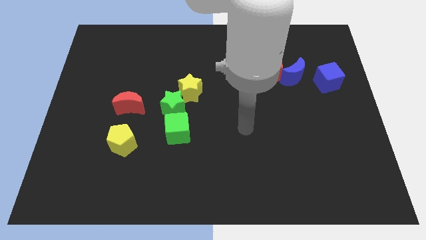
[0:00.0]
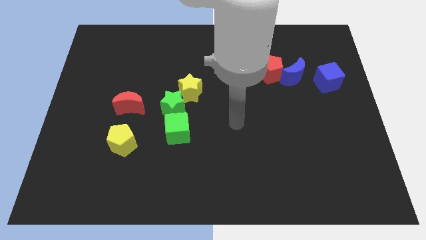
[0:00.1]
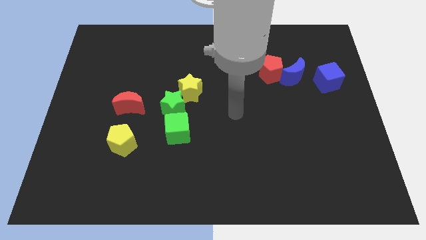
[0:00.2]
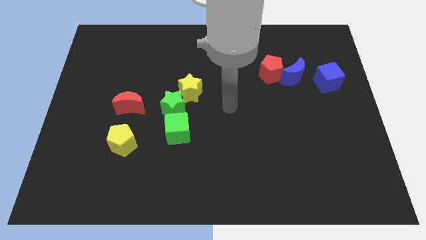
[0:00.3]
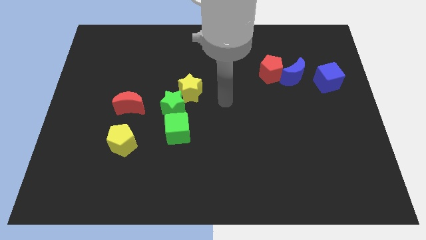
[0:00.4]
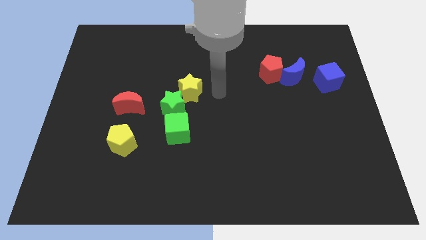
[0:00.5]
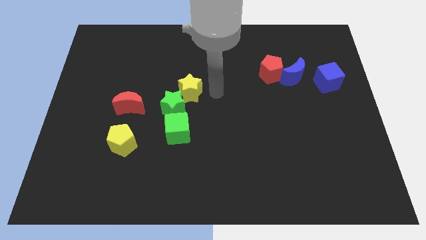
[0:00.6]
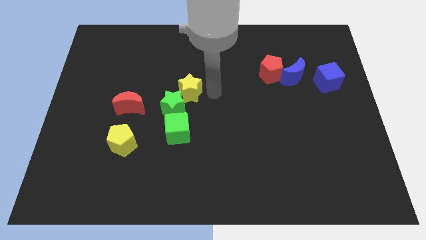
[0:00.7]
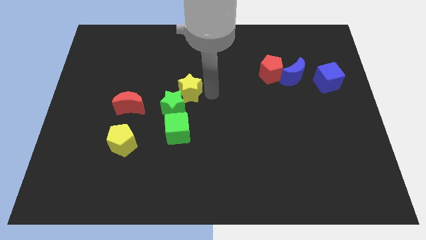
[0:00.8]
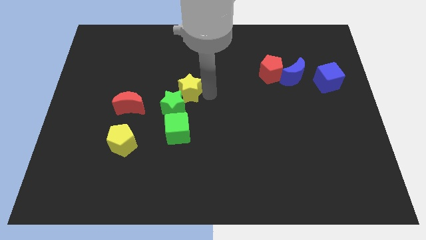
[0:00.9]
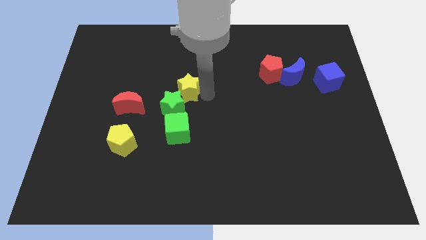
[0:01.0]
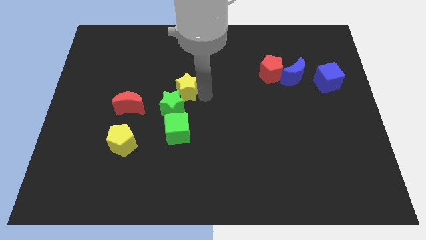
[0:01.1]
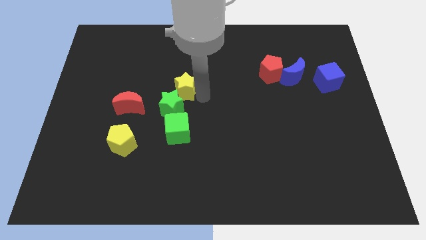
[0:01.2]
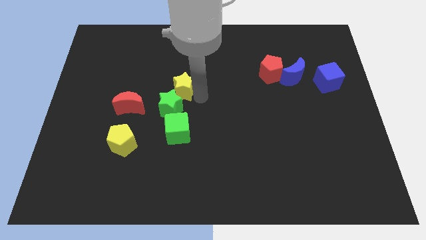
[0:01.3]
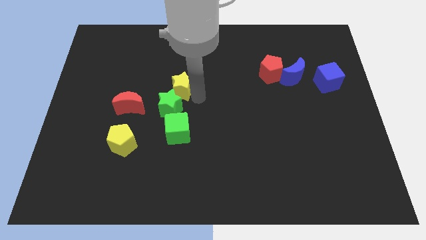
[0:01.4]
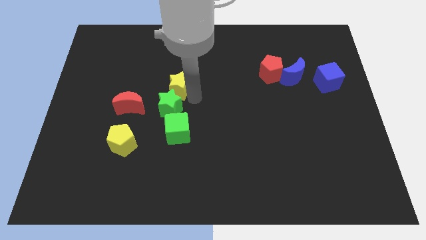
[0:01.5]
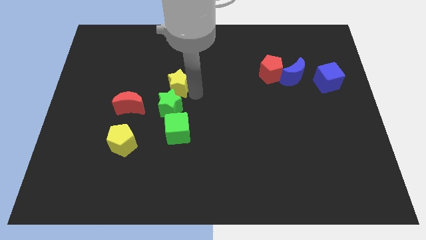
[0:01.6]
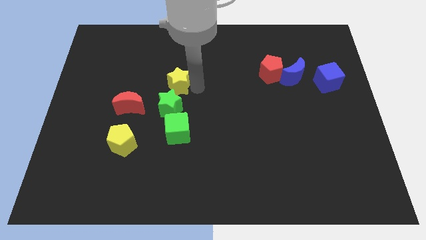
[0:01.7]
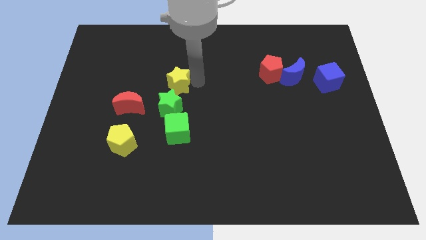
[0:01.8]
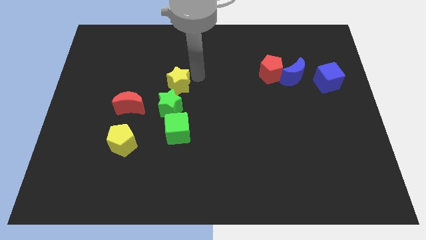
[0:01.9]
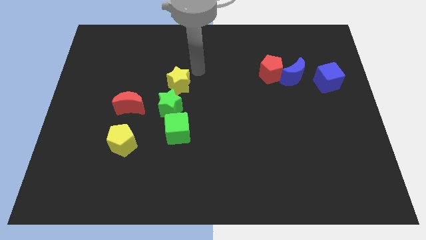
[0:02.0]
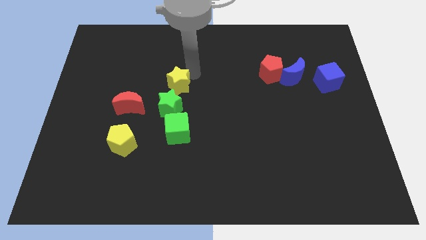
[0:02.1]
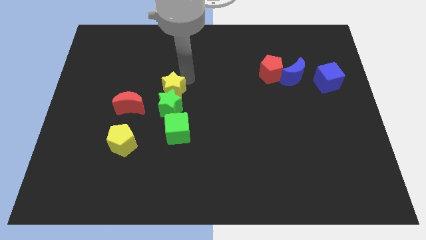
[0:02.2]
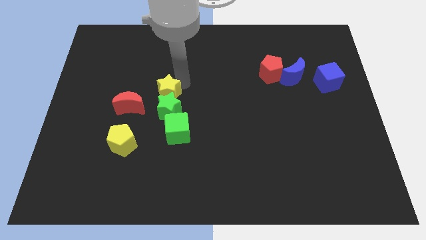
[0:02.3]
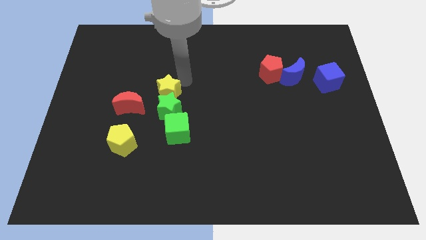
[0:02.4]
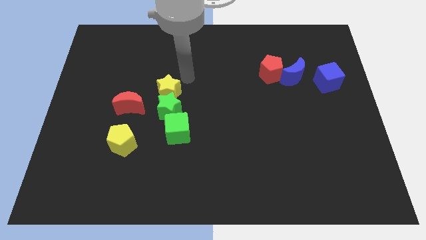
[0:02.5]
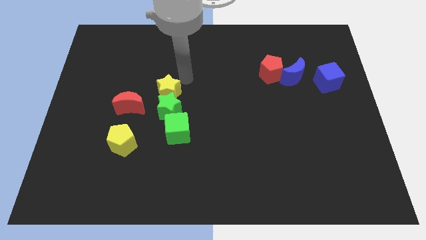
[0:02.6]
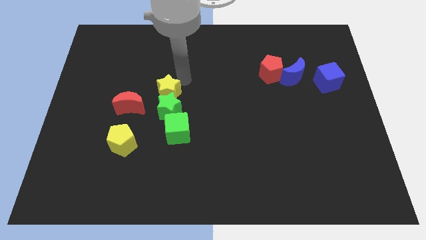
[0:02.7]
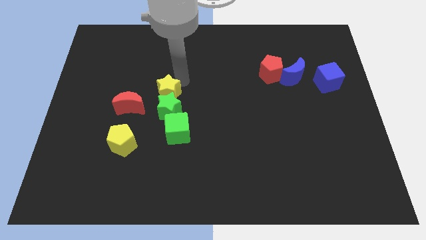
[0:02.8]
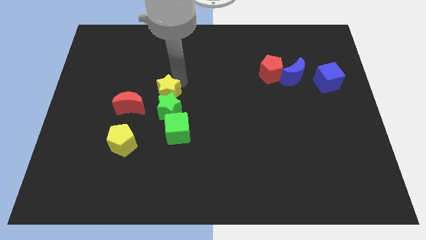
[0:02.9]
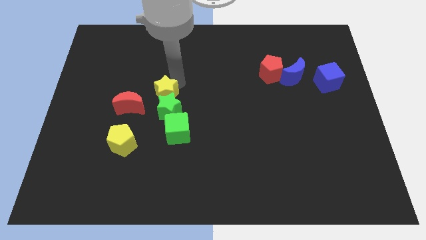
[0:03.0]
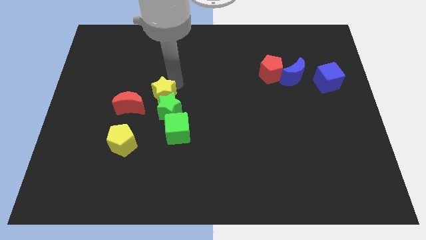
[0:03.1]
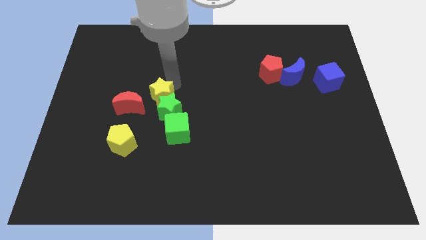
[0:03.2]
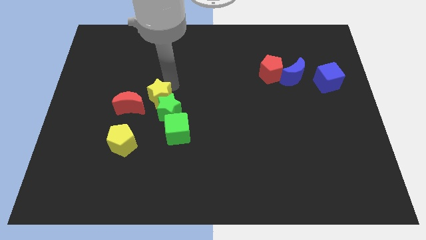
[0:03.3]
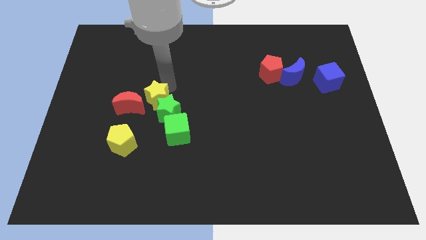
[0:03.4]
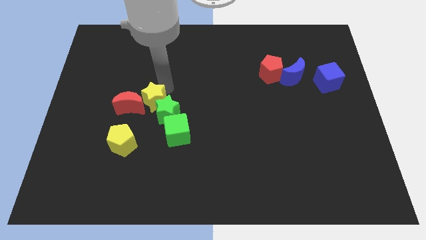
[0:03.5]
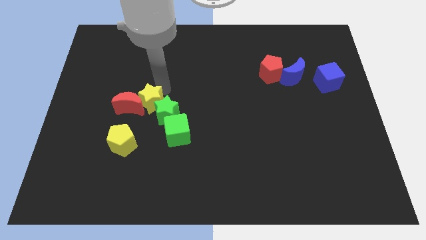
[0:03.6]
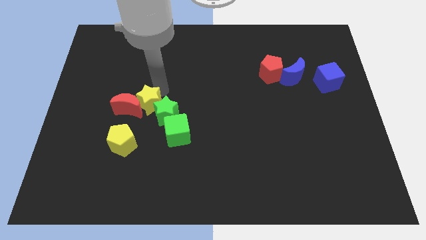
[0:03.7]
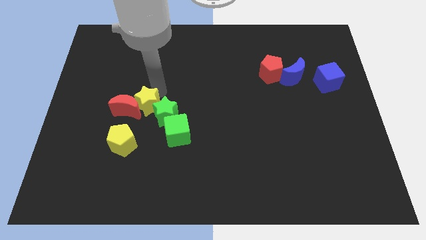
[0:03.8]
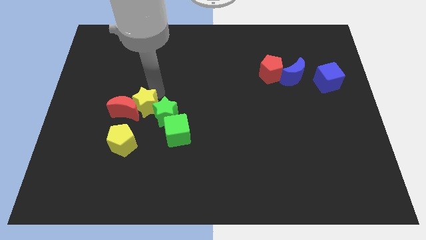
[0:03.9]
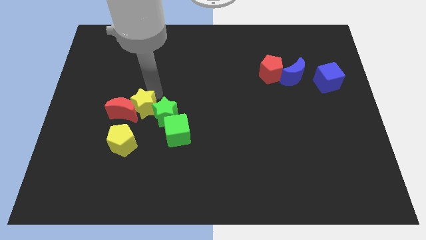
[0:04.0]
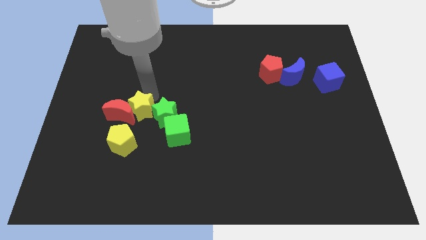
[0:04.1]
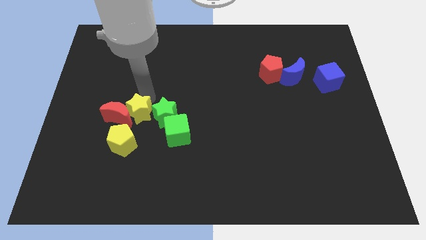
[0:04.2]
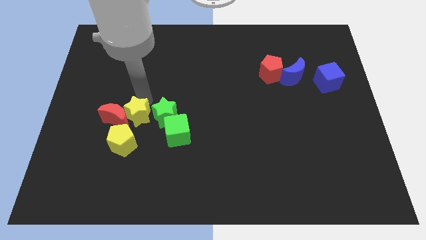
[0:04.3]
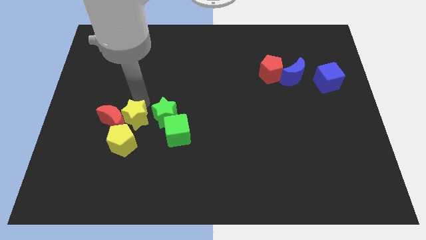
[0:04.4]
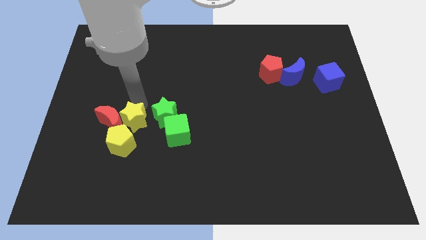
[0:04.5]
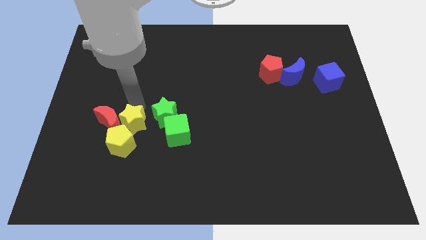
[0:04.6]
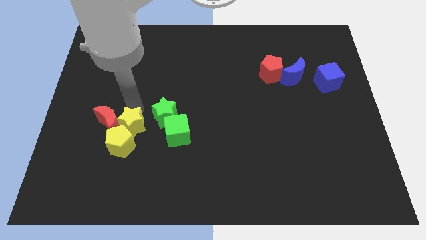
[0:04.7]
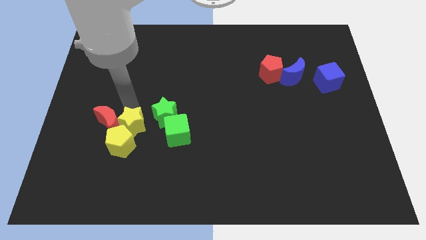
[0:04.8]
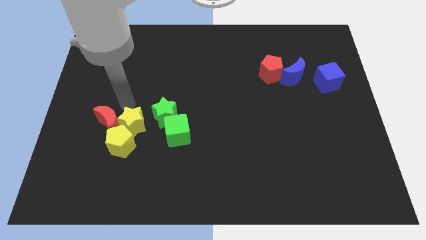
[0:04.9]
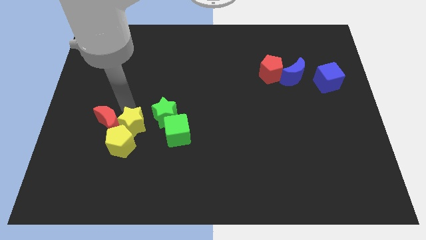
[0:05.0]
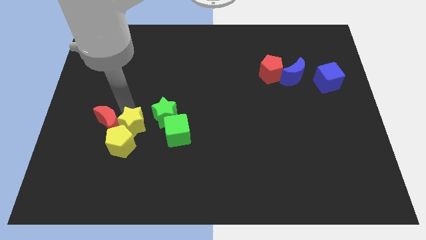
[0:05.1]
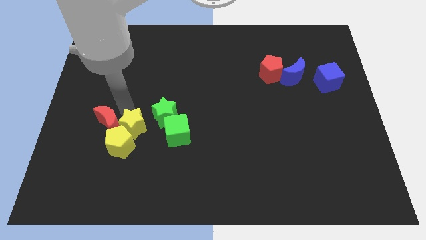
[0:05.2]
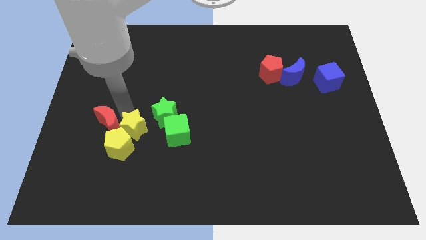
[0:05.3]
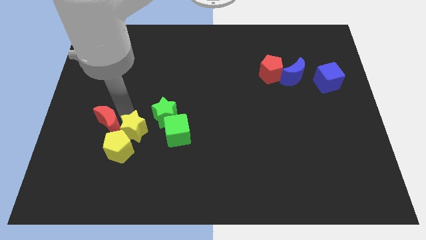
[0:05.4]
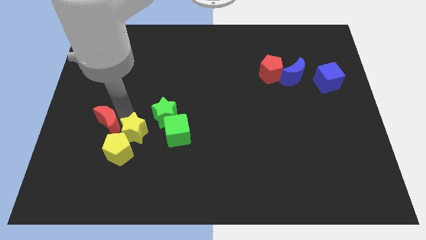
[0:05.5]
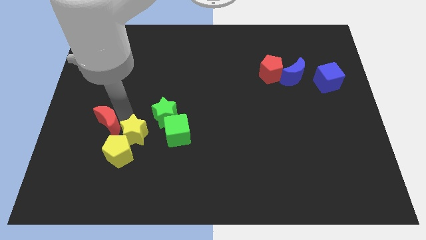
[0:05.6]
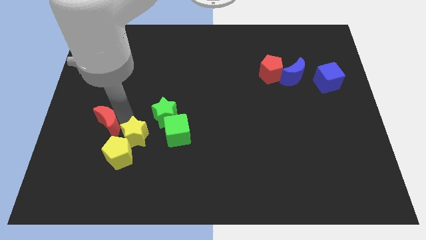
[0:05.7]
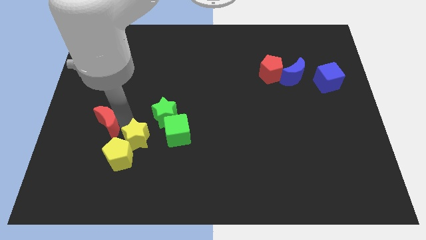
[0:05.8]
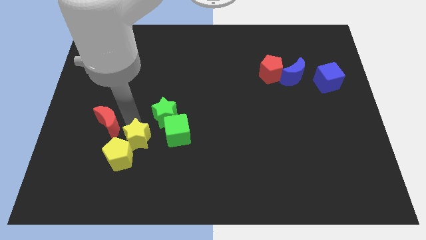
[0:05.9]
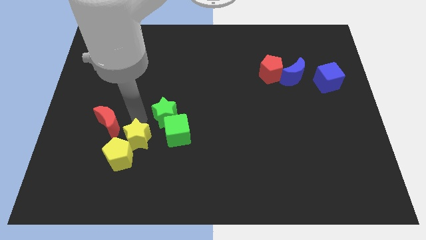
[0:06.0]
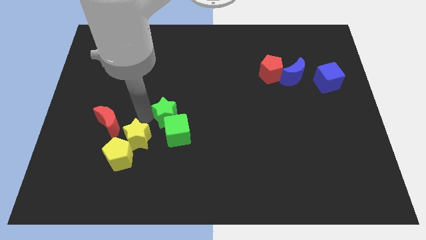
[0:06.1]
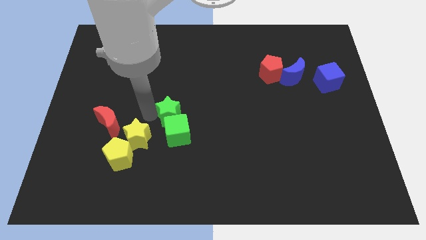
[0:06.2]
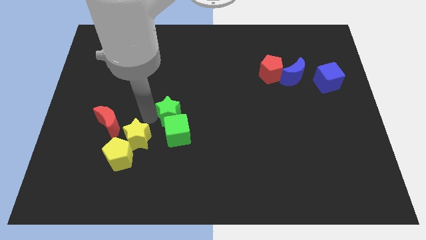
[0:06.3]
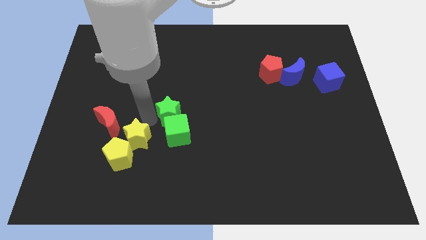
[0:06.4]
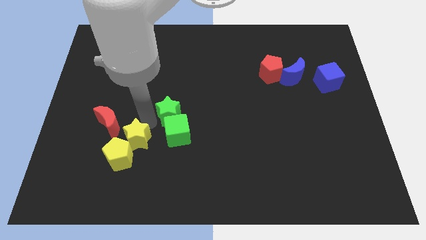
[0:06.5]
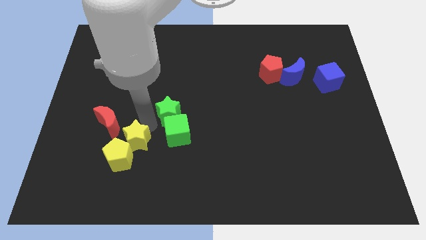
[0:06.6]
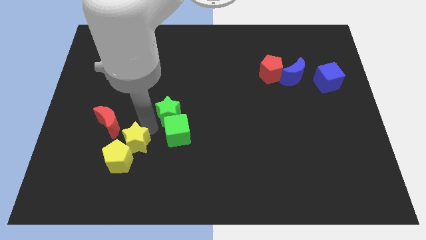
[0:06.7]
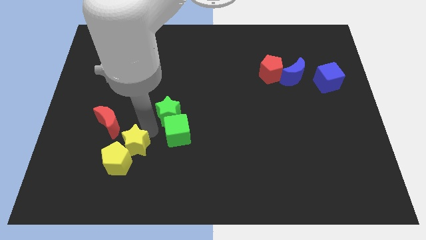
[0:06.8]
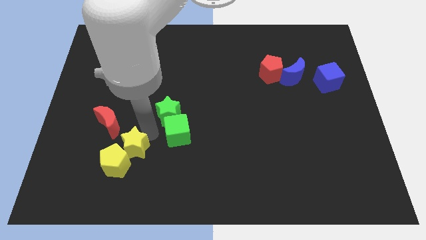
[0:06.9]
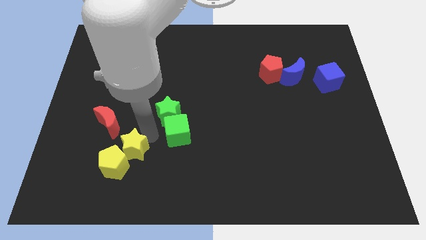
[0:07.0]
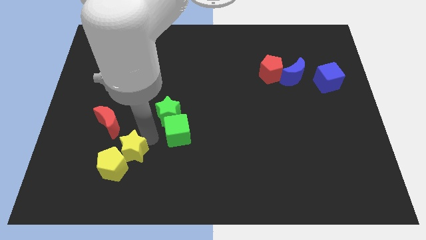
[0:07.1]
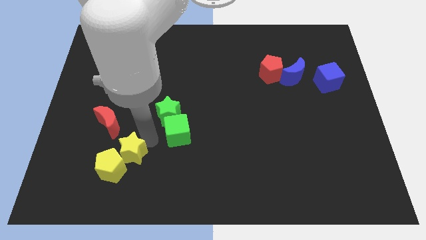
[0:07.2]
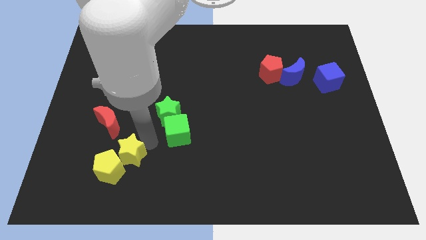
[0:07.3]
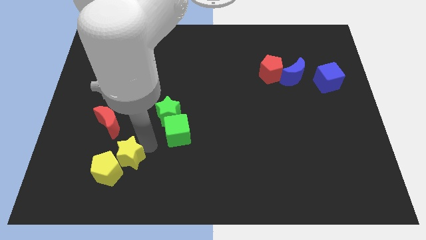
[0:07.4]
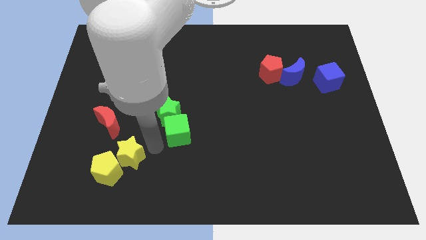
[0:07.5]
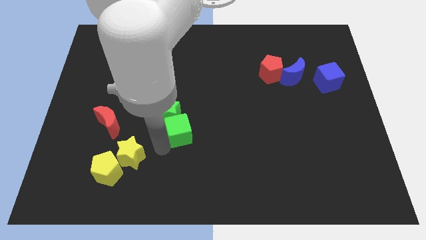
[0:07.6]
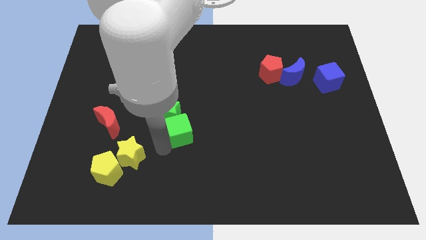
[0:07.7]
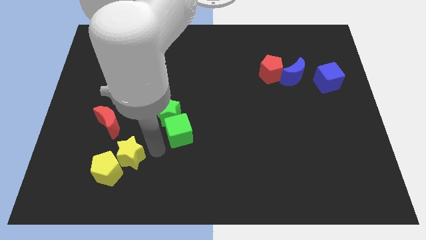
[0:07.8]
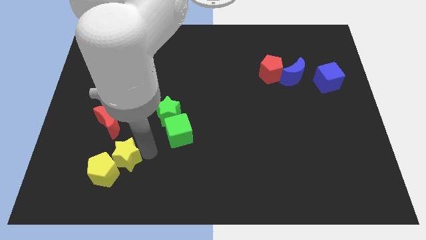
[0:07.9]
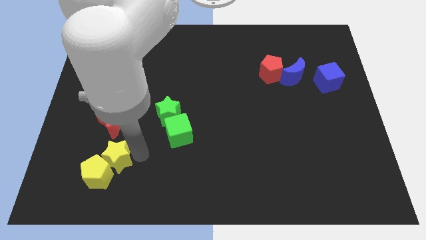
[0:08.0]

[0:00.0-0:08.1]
put the yellow star to the bottom side of the red moon
